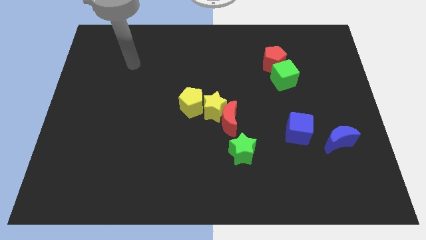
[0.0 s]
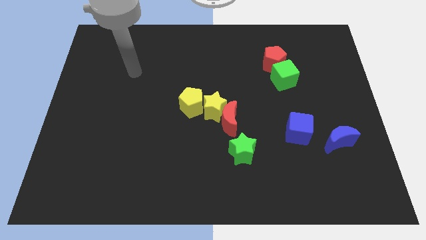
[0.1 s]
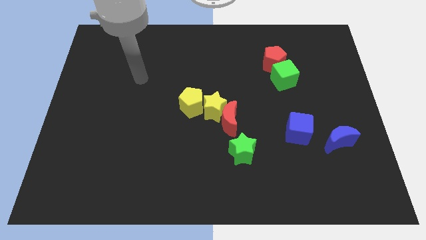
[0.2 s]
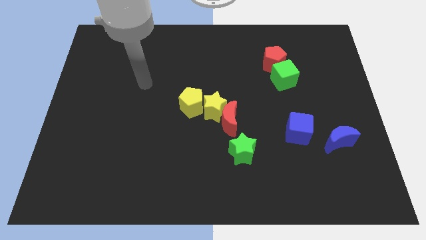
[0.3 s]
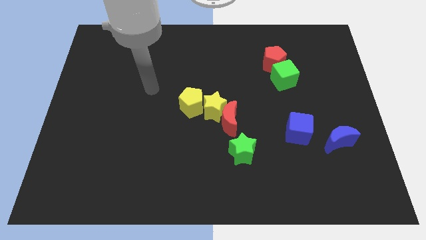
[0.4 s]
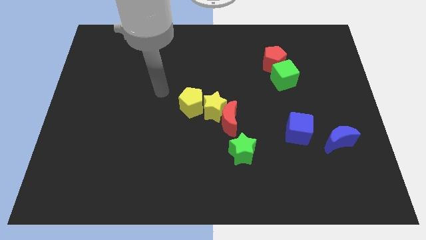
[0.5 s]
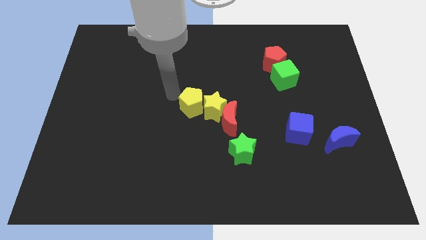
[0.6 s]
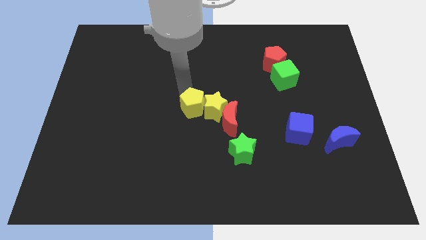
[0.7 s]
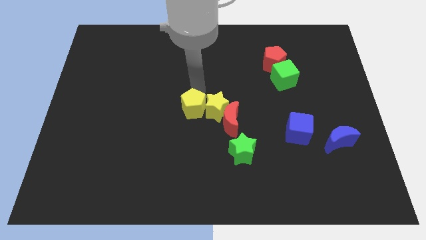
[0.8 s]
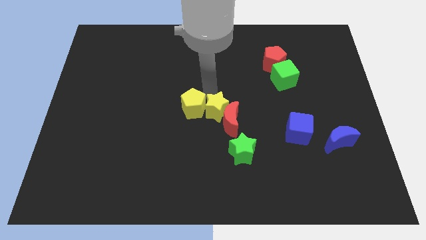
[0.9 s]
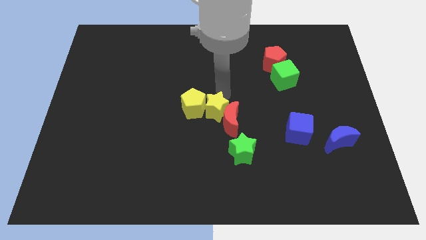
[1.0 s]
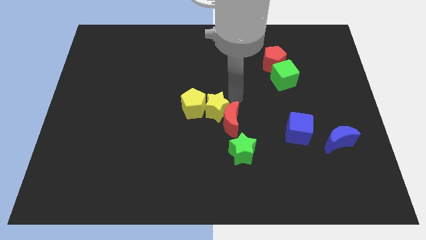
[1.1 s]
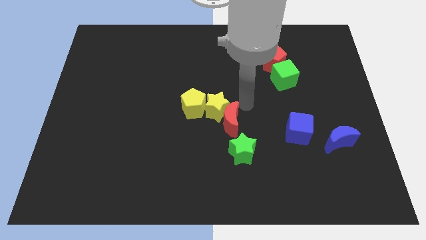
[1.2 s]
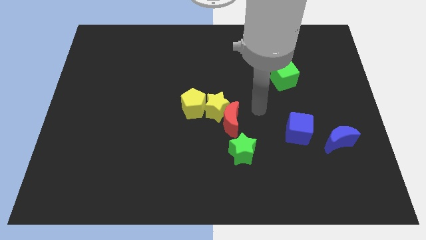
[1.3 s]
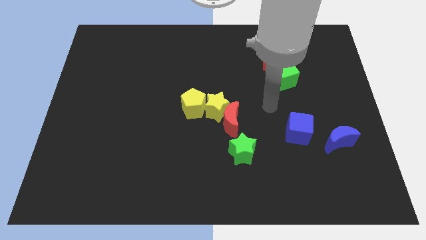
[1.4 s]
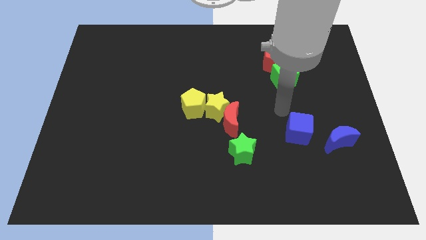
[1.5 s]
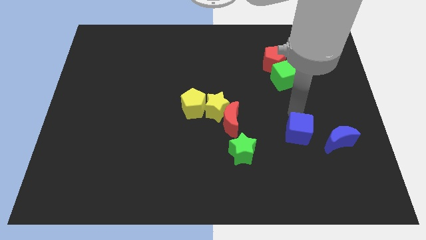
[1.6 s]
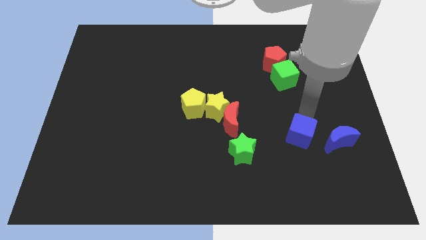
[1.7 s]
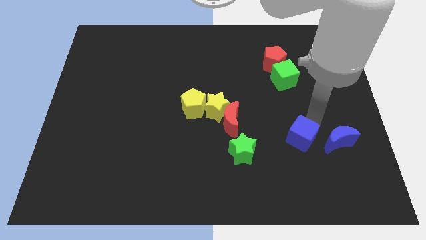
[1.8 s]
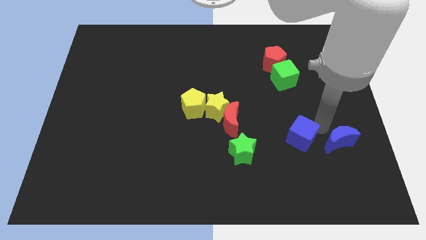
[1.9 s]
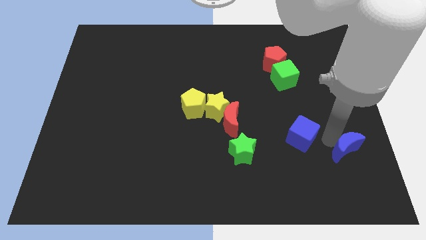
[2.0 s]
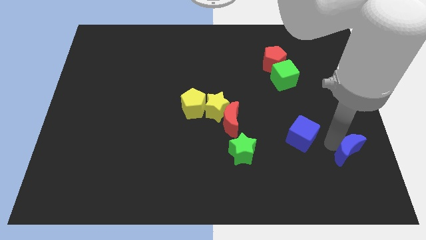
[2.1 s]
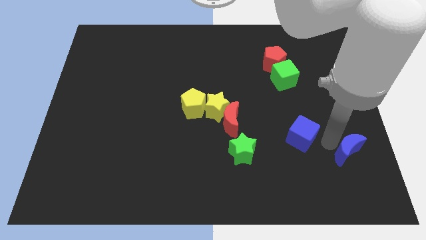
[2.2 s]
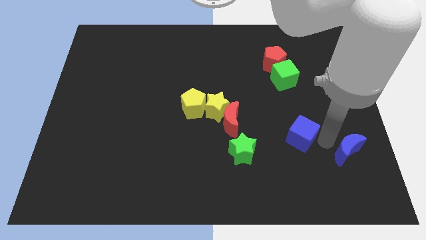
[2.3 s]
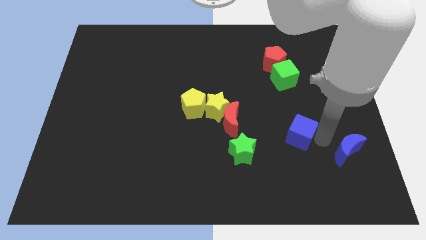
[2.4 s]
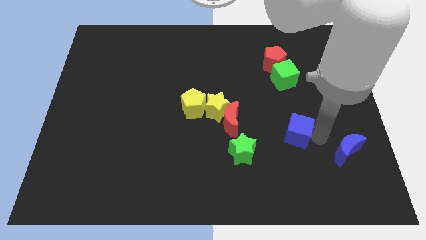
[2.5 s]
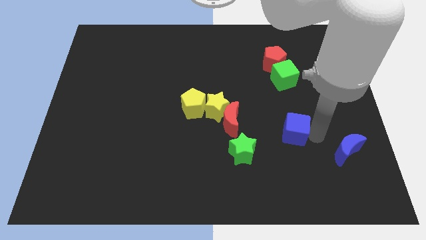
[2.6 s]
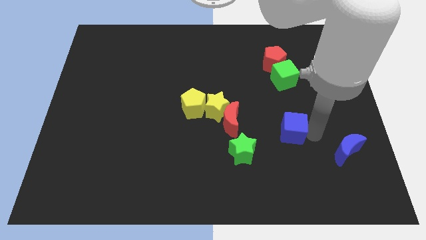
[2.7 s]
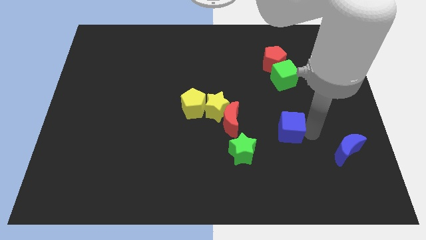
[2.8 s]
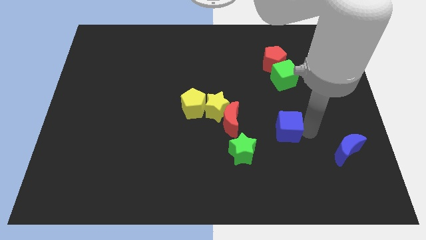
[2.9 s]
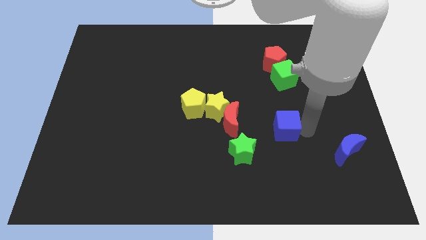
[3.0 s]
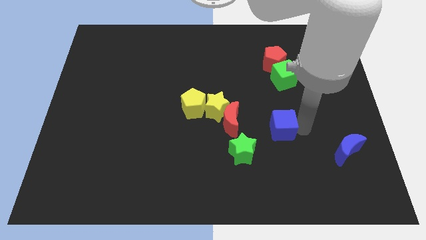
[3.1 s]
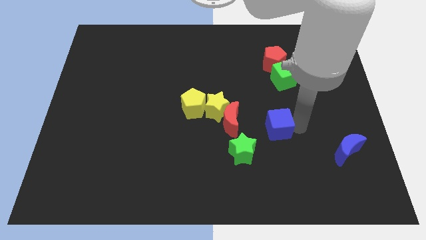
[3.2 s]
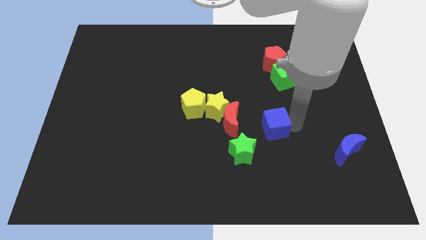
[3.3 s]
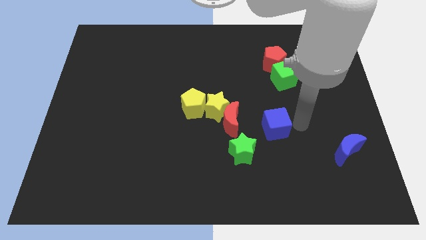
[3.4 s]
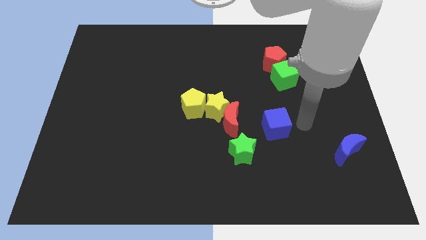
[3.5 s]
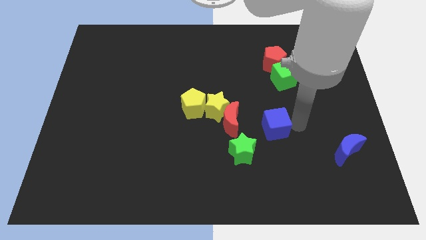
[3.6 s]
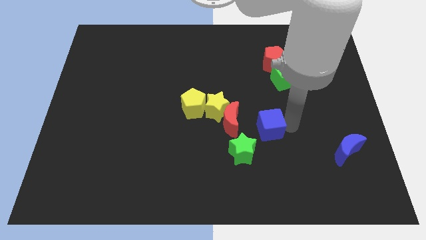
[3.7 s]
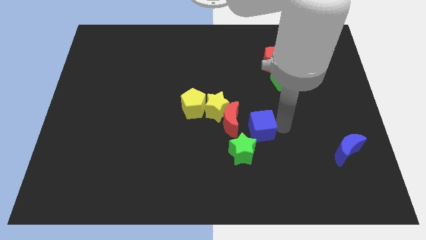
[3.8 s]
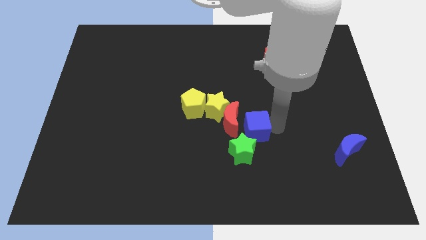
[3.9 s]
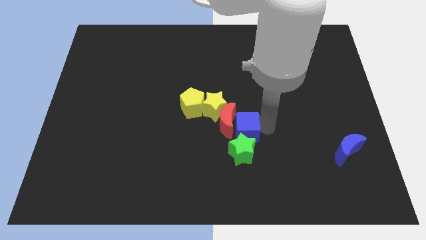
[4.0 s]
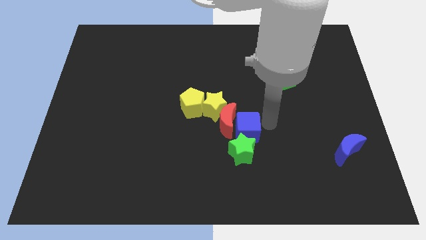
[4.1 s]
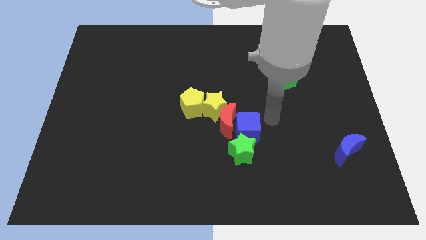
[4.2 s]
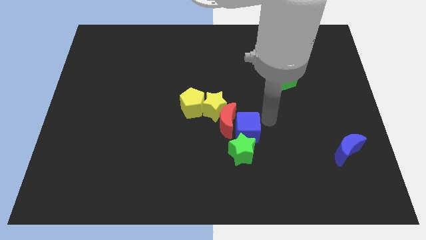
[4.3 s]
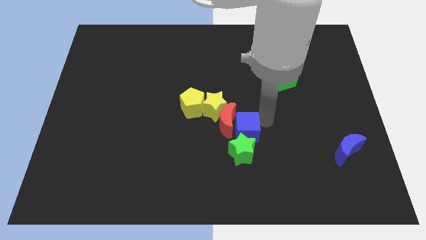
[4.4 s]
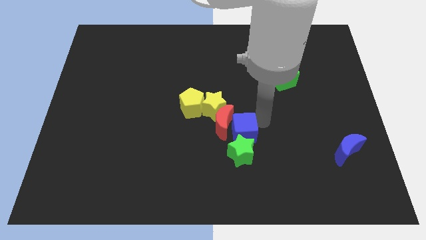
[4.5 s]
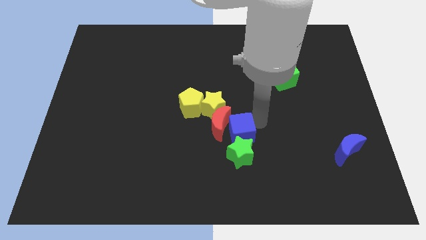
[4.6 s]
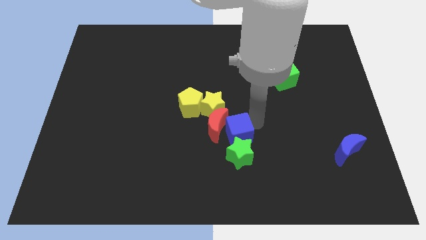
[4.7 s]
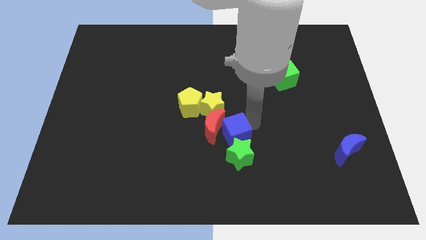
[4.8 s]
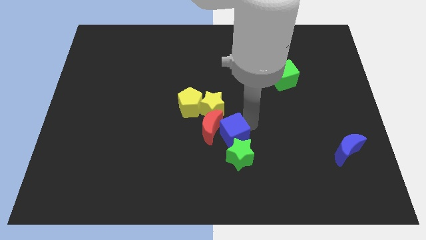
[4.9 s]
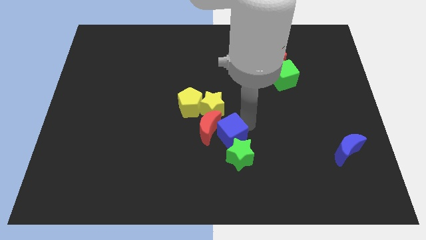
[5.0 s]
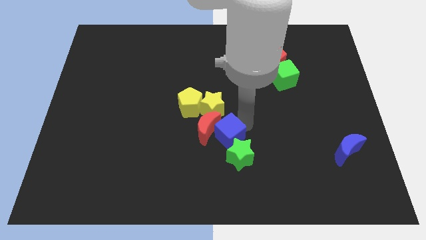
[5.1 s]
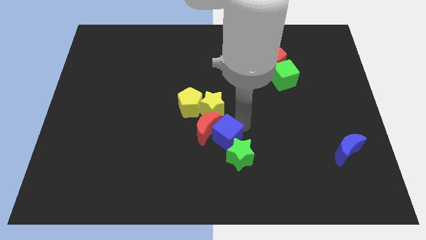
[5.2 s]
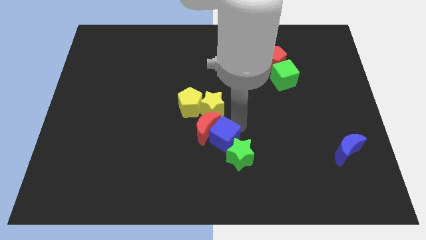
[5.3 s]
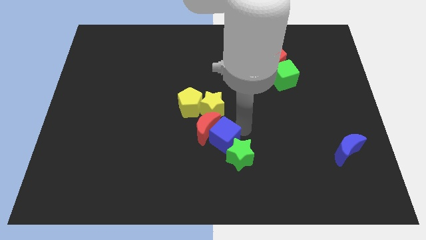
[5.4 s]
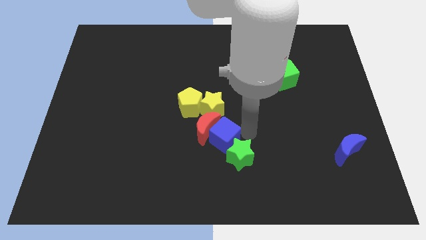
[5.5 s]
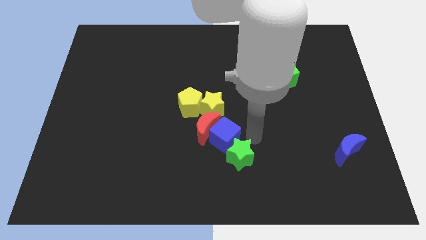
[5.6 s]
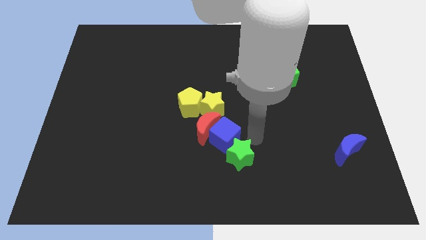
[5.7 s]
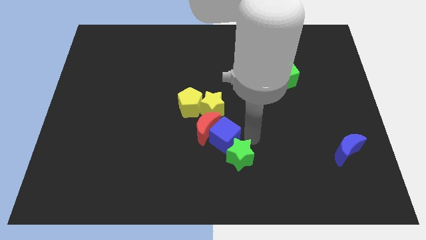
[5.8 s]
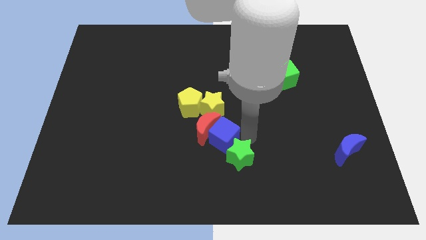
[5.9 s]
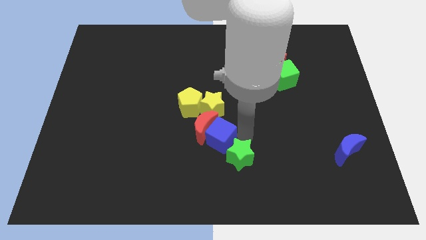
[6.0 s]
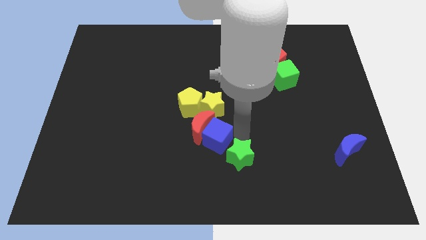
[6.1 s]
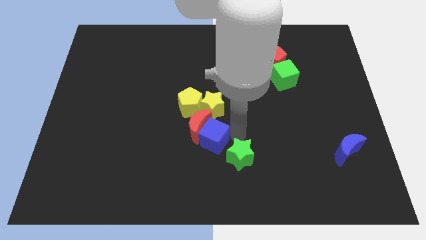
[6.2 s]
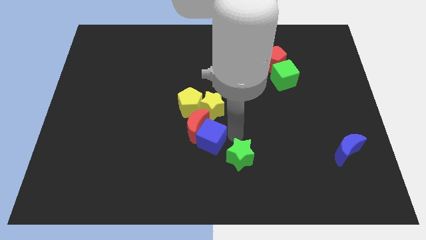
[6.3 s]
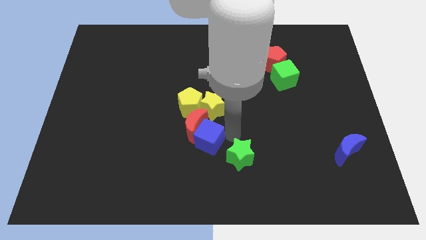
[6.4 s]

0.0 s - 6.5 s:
slide the blue cube to the left

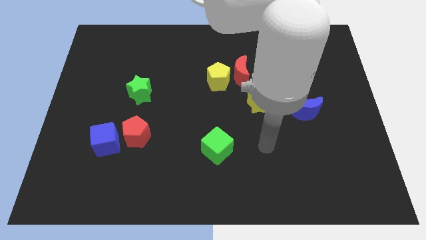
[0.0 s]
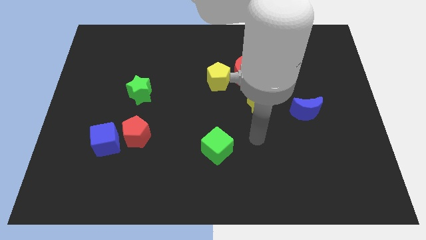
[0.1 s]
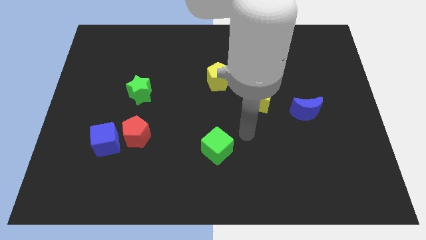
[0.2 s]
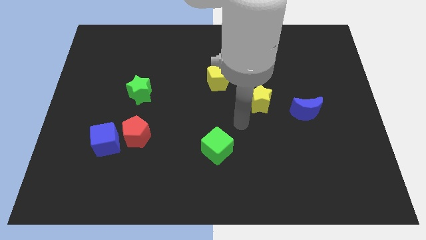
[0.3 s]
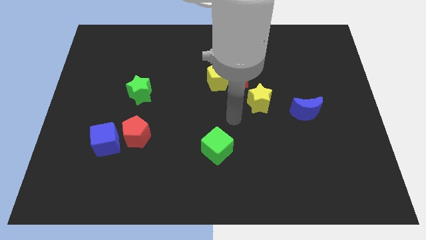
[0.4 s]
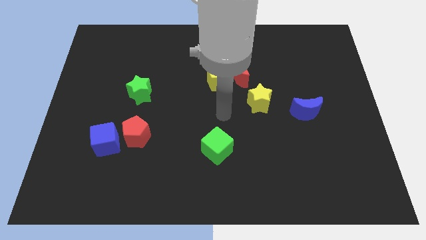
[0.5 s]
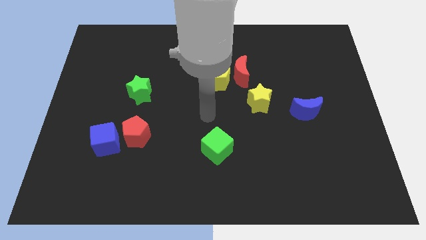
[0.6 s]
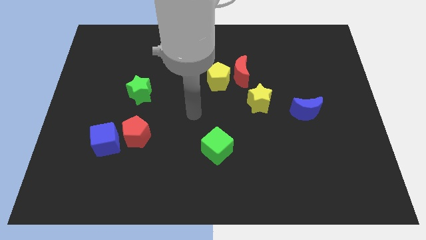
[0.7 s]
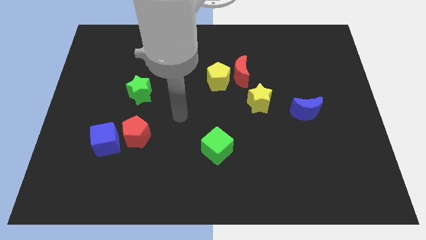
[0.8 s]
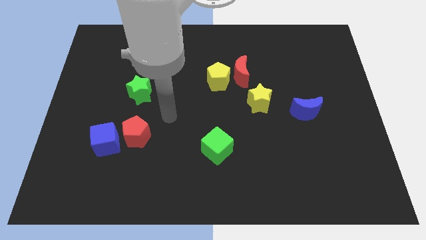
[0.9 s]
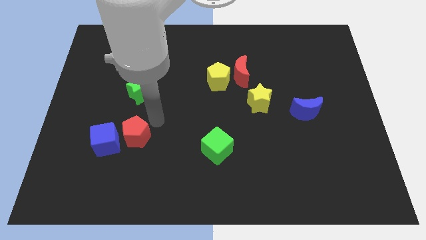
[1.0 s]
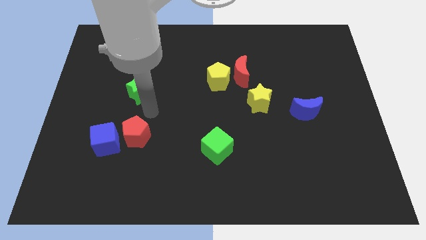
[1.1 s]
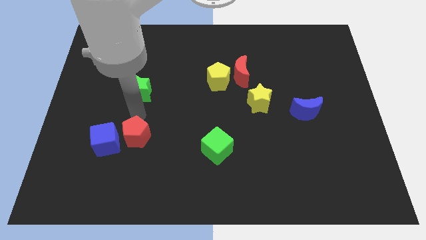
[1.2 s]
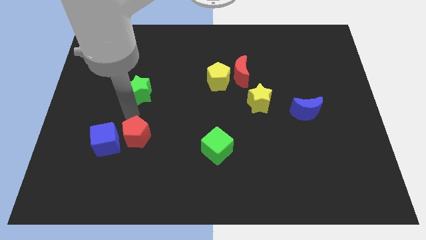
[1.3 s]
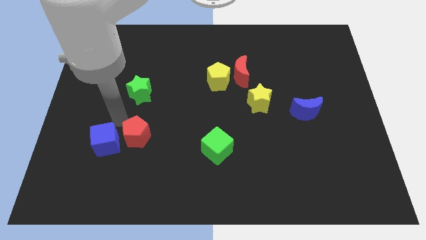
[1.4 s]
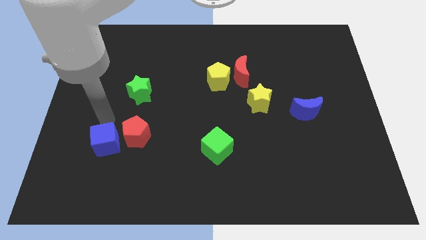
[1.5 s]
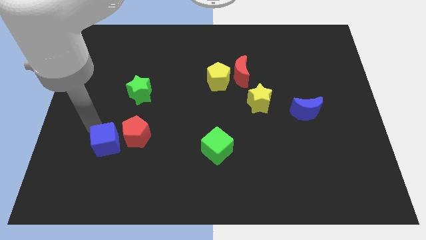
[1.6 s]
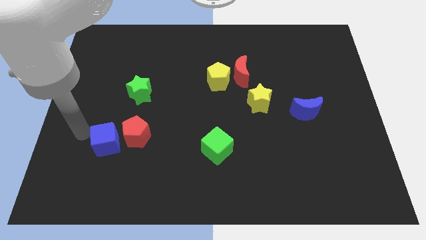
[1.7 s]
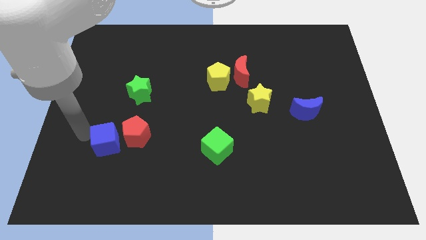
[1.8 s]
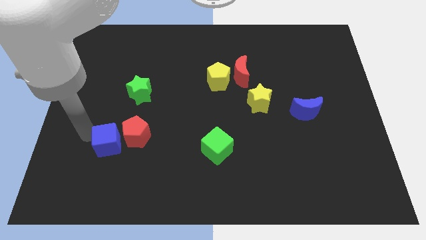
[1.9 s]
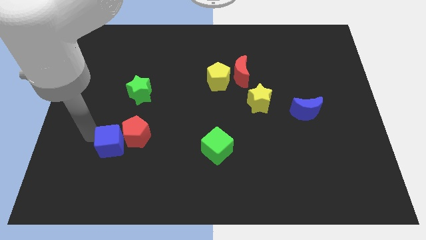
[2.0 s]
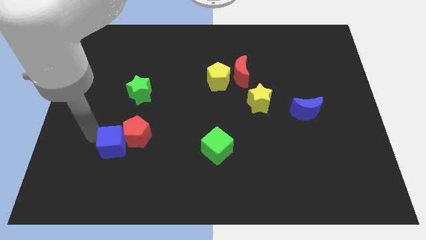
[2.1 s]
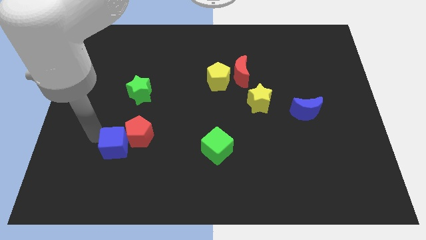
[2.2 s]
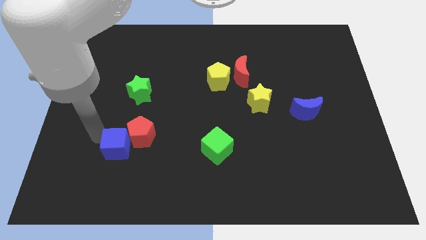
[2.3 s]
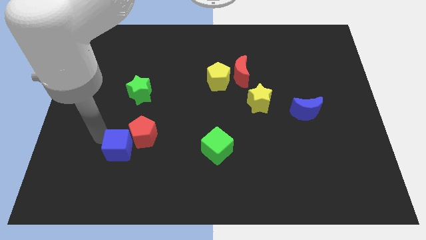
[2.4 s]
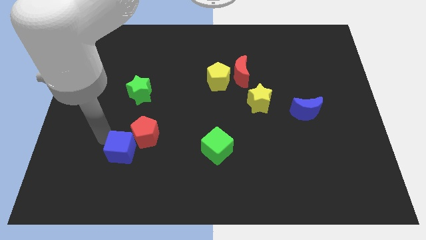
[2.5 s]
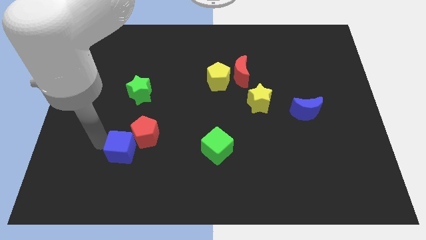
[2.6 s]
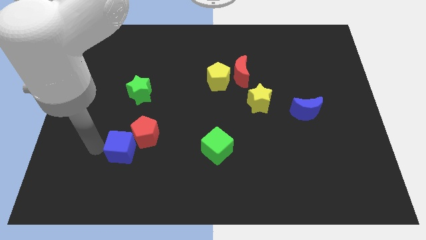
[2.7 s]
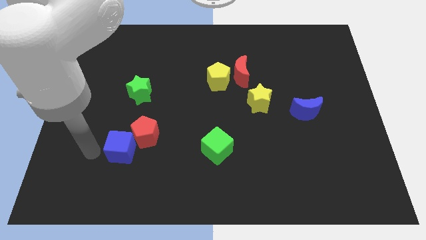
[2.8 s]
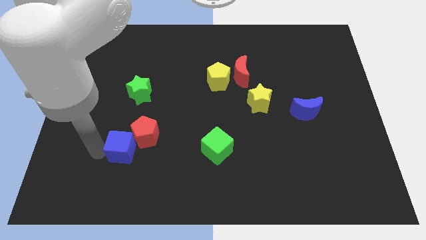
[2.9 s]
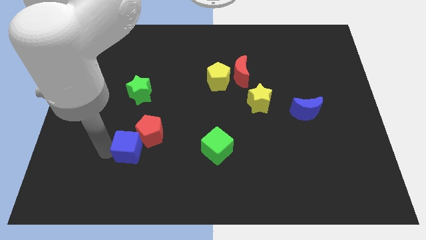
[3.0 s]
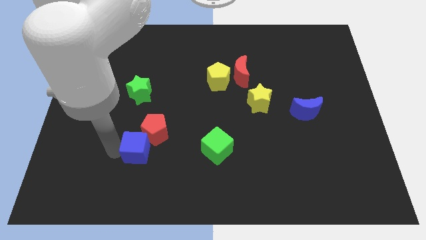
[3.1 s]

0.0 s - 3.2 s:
move the blue cube somewhat right
